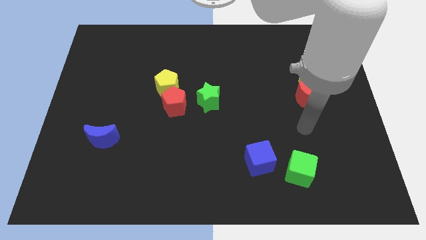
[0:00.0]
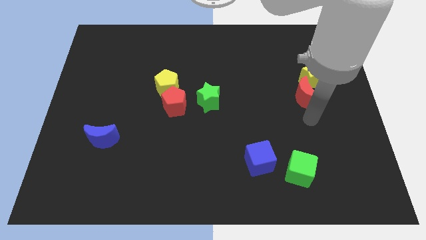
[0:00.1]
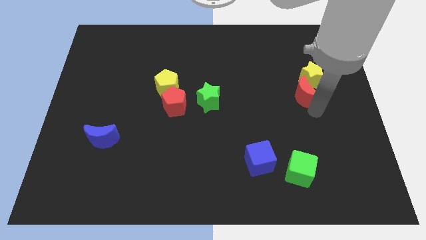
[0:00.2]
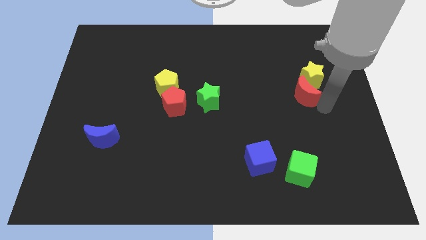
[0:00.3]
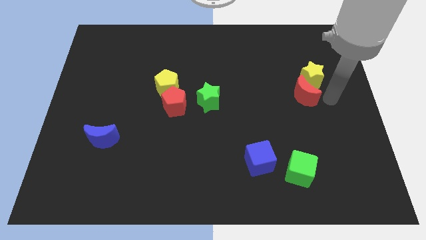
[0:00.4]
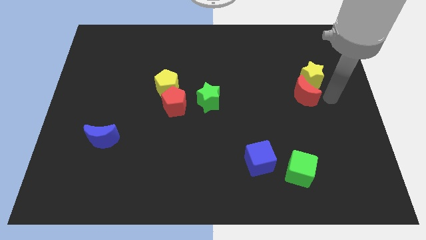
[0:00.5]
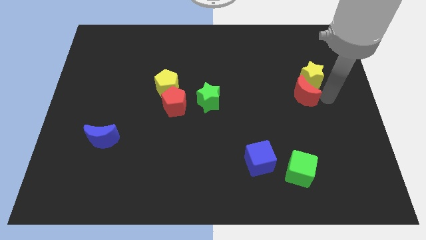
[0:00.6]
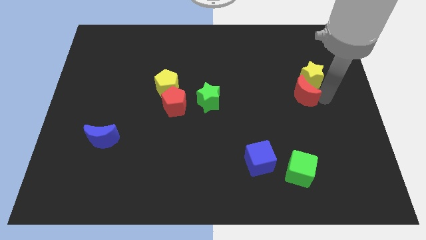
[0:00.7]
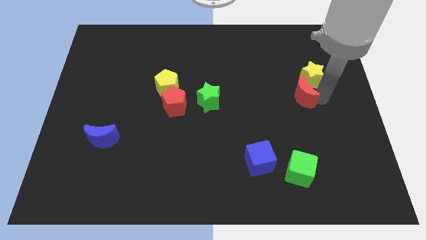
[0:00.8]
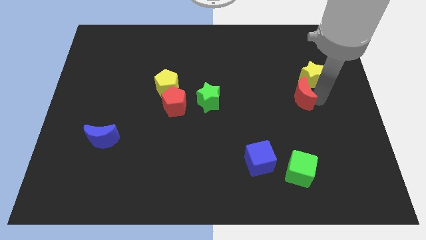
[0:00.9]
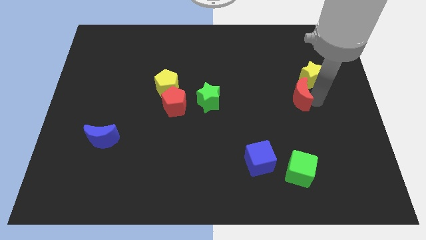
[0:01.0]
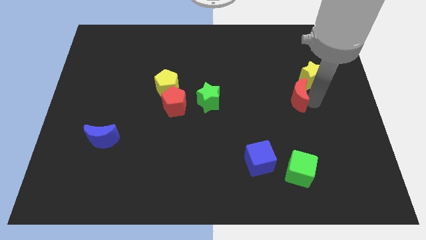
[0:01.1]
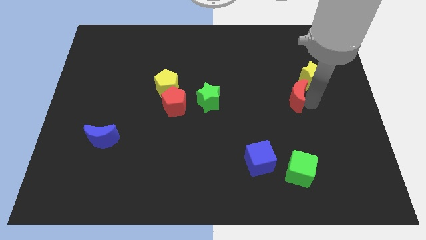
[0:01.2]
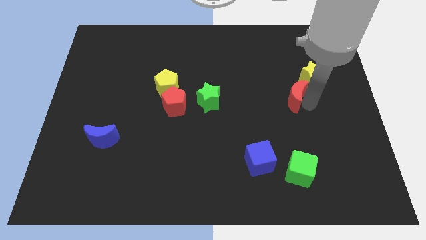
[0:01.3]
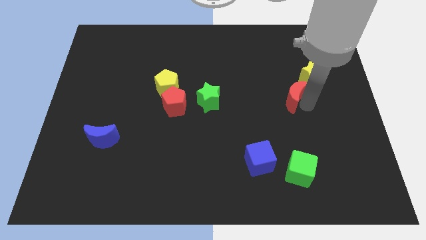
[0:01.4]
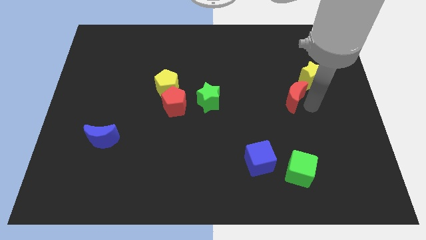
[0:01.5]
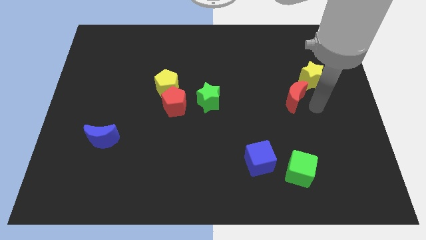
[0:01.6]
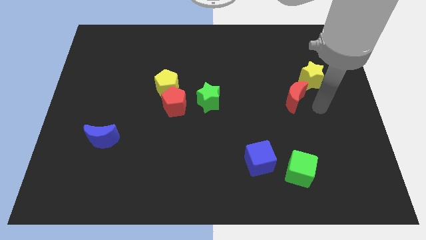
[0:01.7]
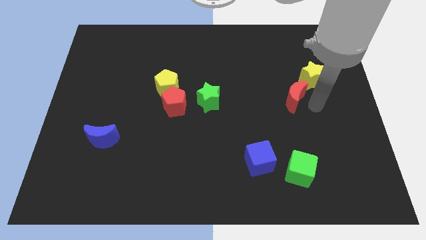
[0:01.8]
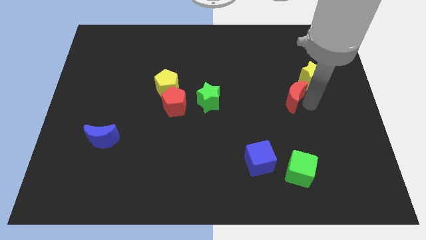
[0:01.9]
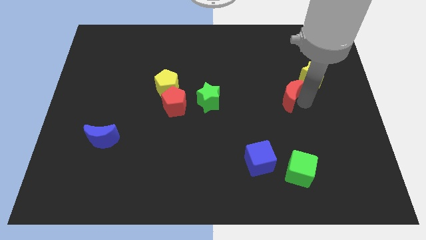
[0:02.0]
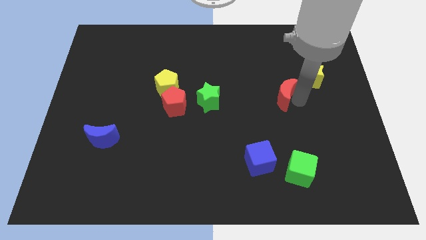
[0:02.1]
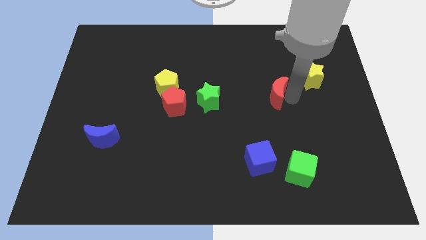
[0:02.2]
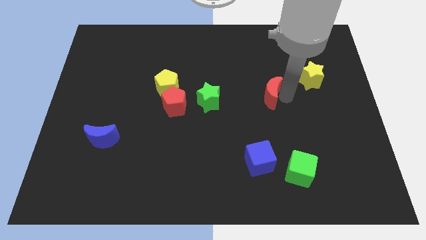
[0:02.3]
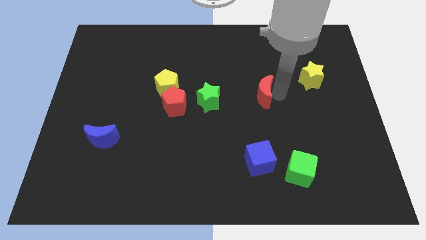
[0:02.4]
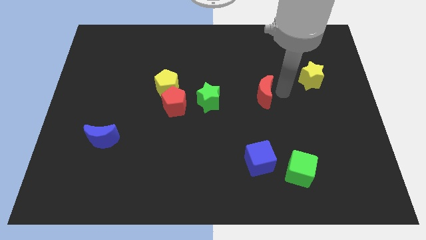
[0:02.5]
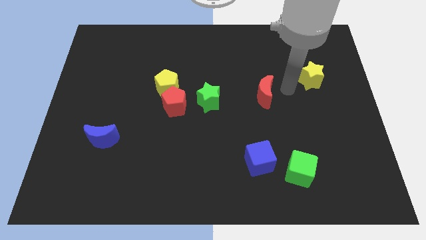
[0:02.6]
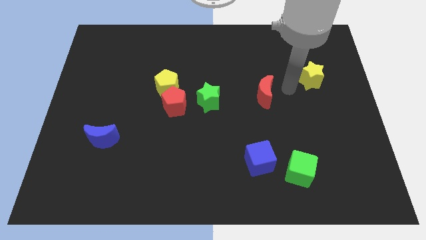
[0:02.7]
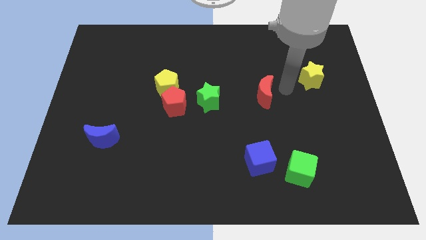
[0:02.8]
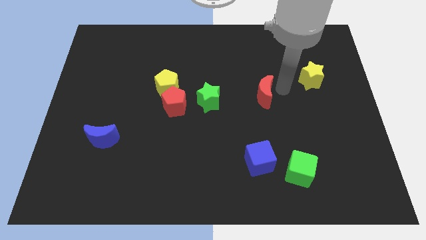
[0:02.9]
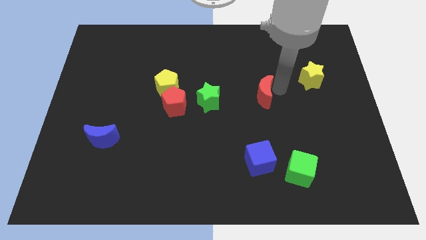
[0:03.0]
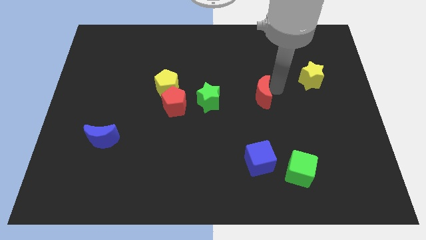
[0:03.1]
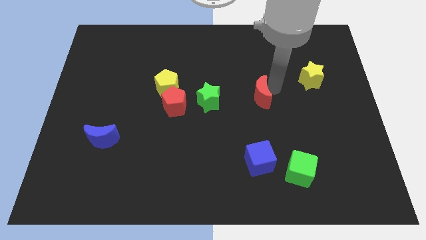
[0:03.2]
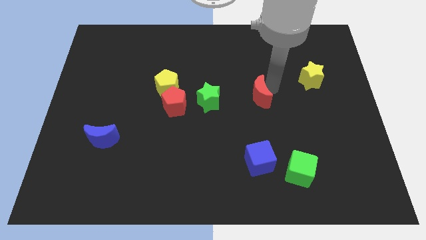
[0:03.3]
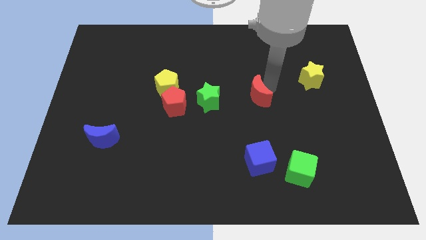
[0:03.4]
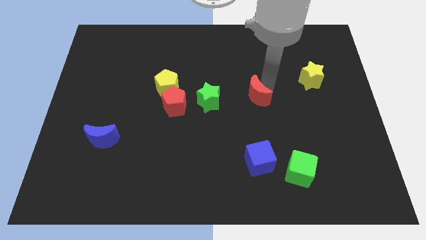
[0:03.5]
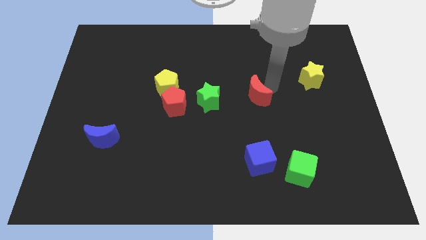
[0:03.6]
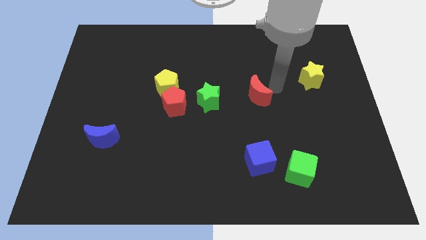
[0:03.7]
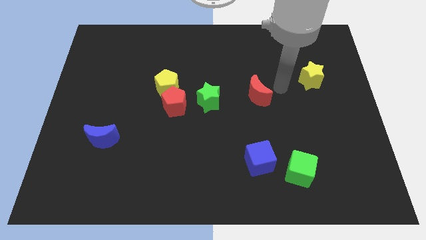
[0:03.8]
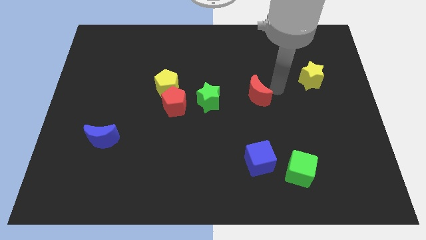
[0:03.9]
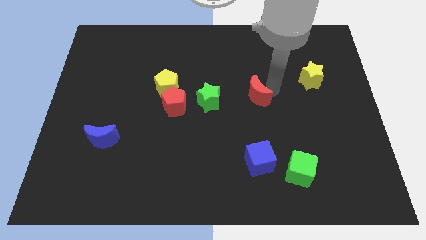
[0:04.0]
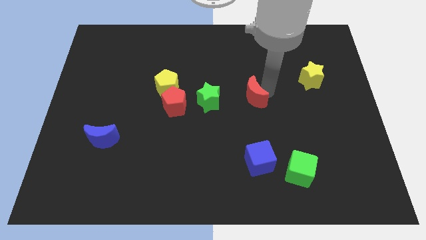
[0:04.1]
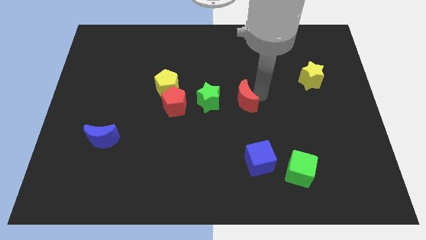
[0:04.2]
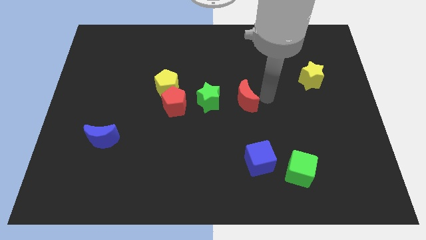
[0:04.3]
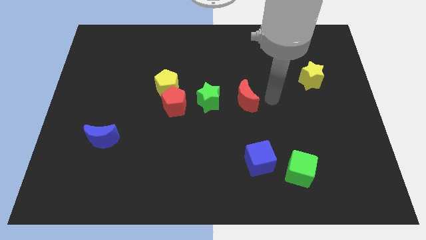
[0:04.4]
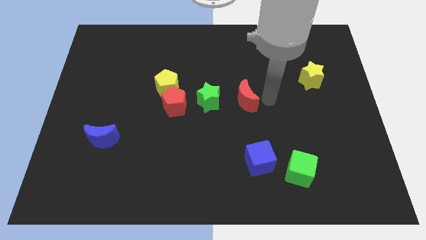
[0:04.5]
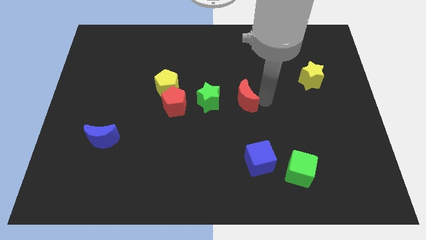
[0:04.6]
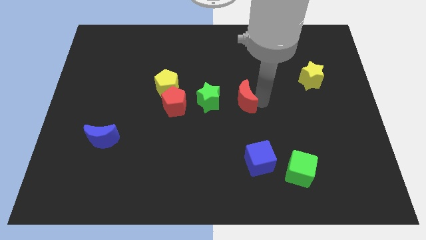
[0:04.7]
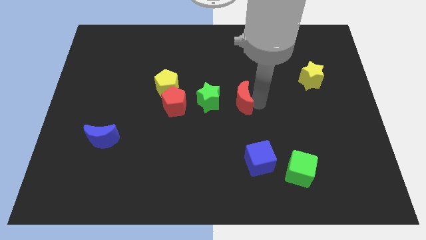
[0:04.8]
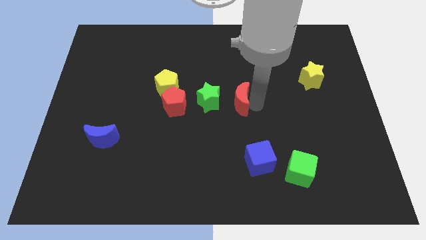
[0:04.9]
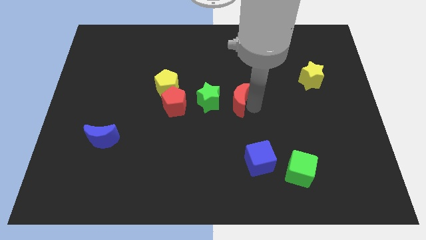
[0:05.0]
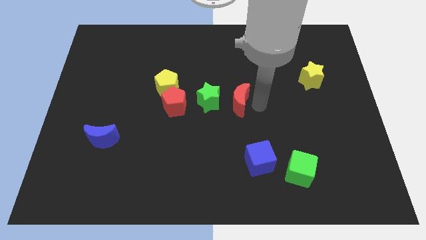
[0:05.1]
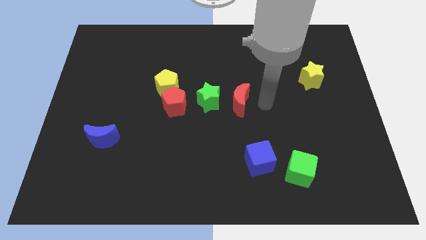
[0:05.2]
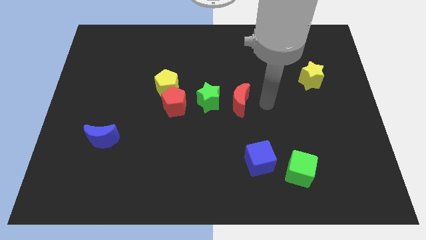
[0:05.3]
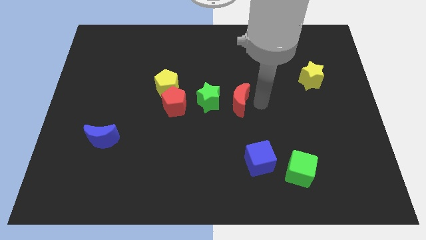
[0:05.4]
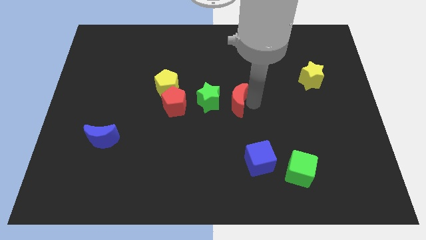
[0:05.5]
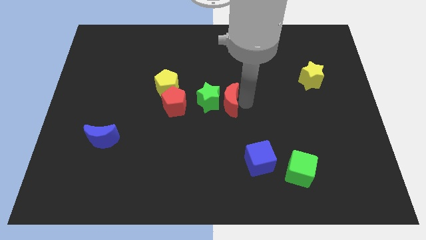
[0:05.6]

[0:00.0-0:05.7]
put the red moon next to the green star
